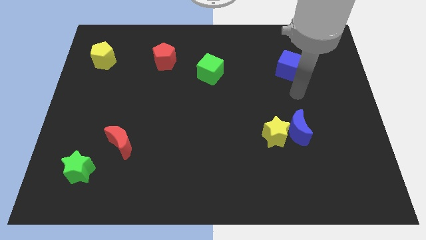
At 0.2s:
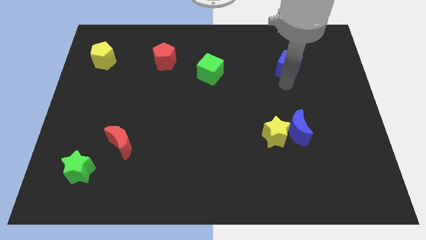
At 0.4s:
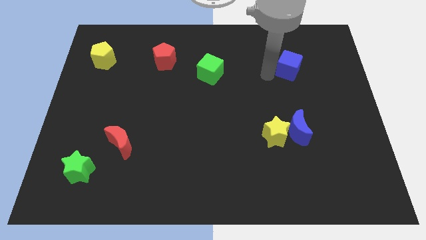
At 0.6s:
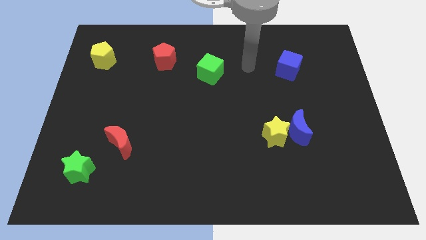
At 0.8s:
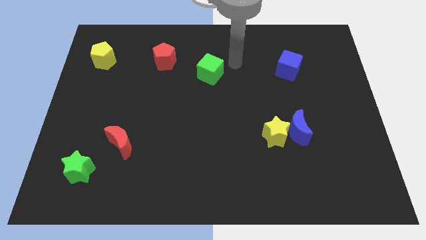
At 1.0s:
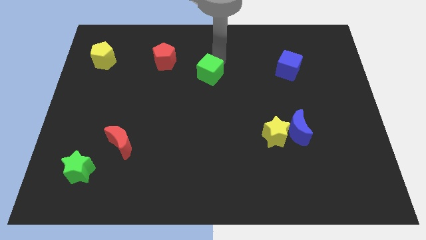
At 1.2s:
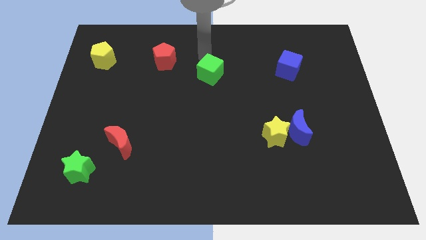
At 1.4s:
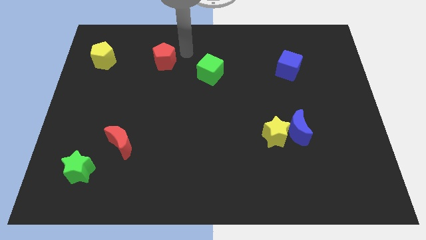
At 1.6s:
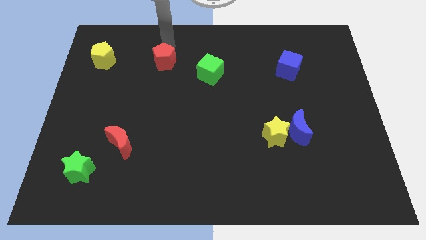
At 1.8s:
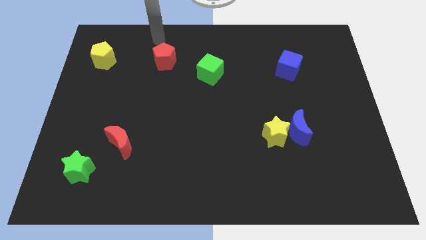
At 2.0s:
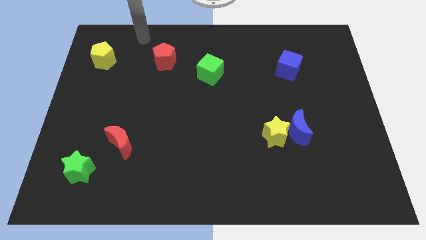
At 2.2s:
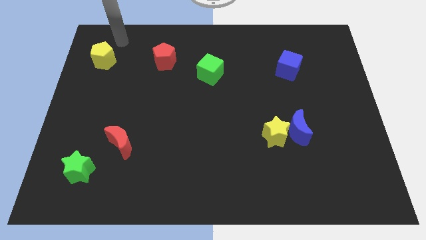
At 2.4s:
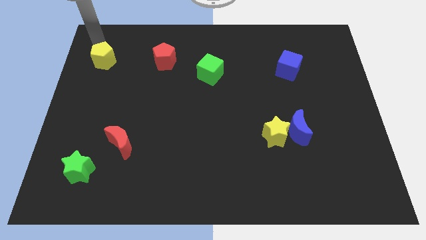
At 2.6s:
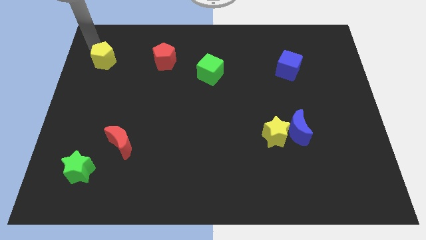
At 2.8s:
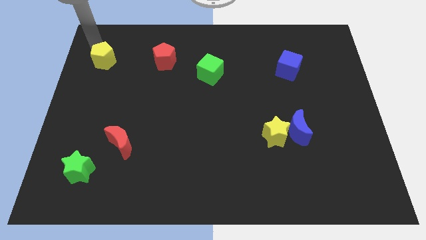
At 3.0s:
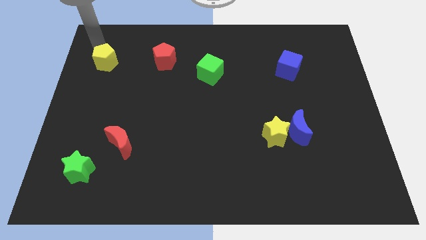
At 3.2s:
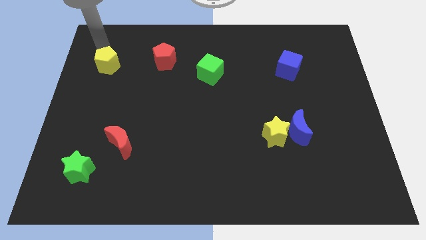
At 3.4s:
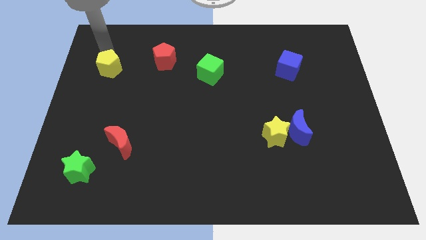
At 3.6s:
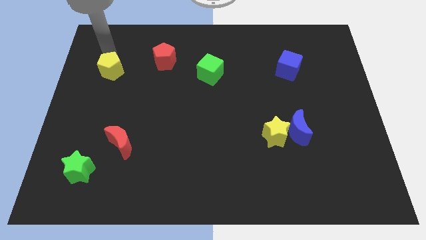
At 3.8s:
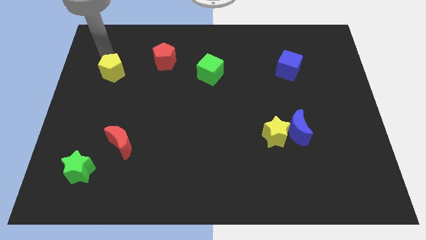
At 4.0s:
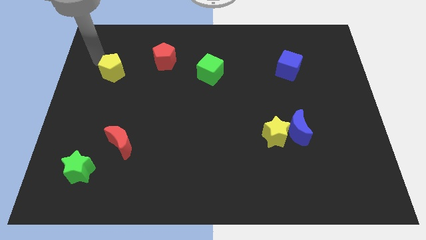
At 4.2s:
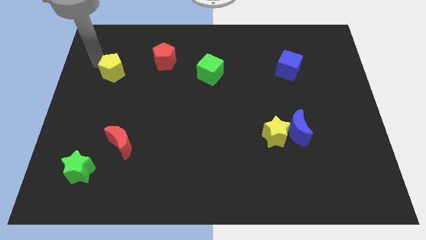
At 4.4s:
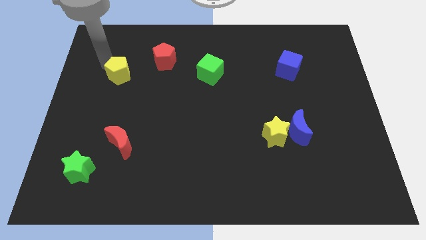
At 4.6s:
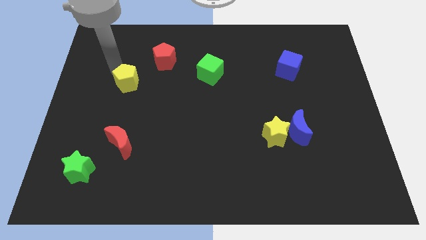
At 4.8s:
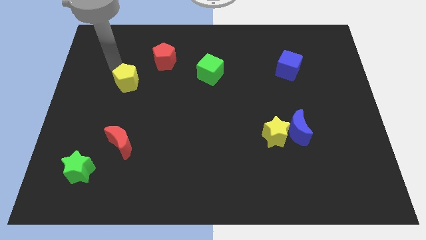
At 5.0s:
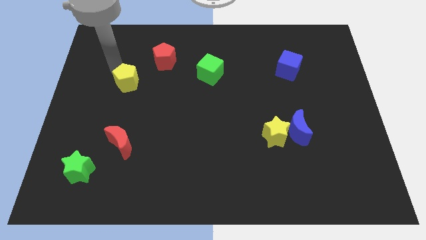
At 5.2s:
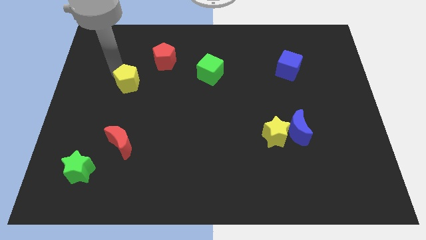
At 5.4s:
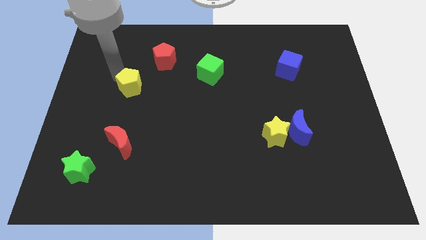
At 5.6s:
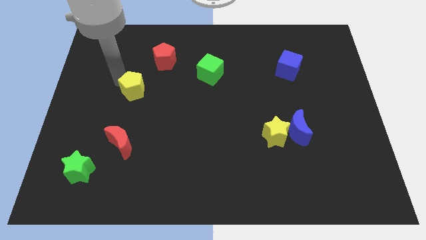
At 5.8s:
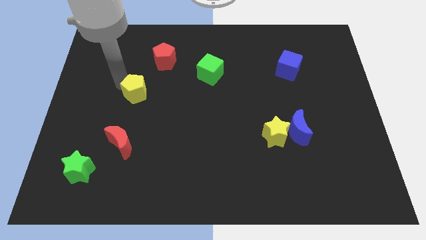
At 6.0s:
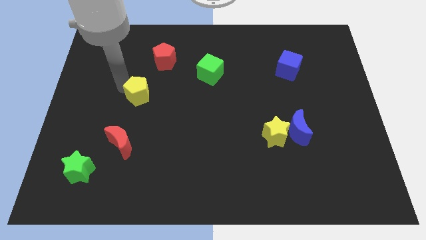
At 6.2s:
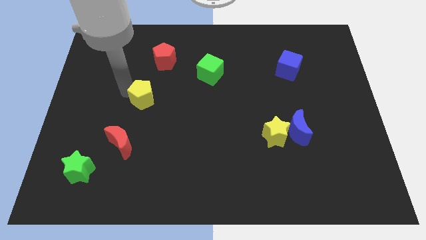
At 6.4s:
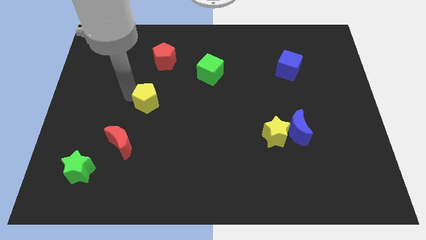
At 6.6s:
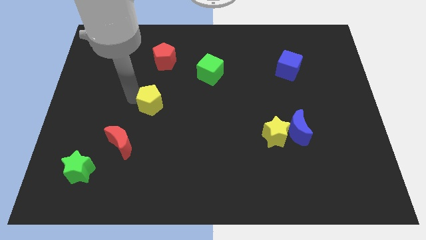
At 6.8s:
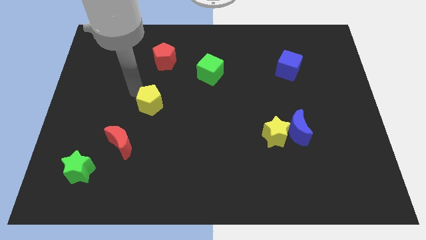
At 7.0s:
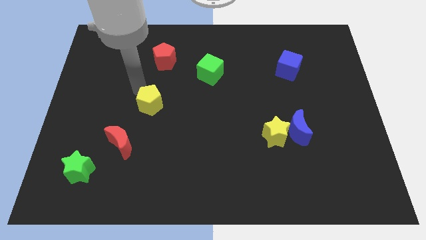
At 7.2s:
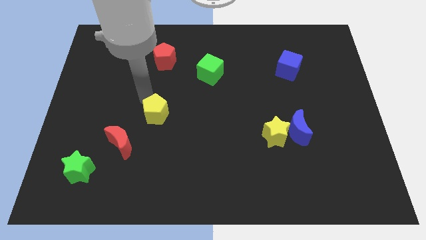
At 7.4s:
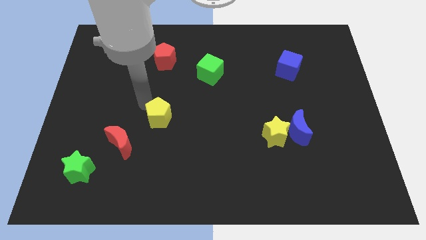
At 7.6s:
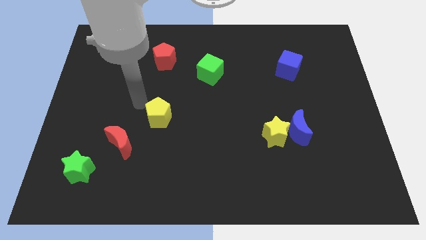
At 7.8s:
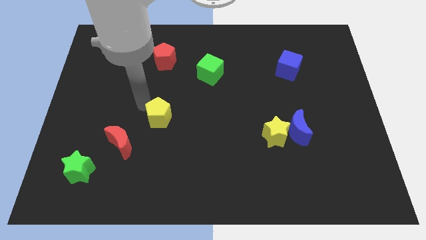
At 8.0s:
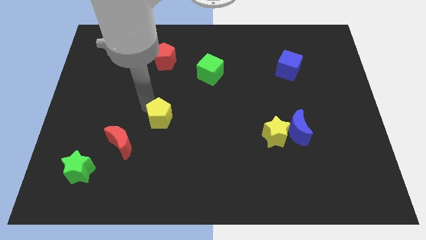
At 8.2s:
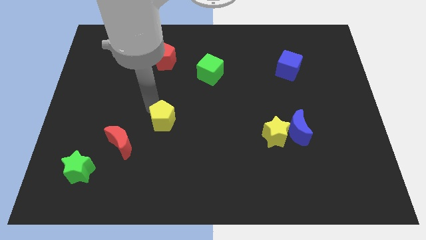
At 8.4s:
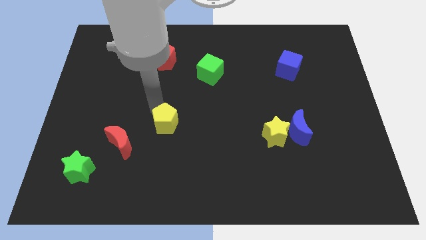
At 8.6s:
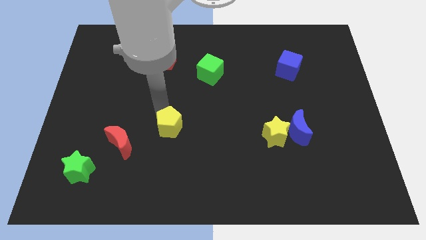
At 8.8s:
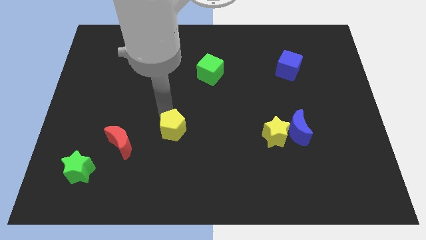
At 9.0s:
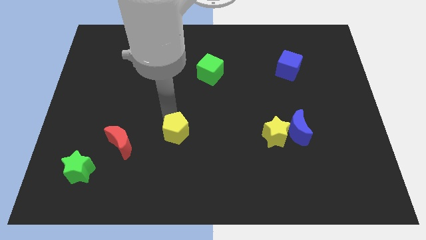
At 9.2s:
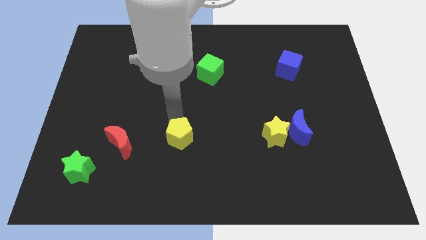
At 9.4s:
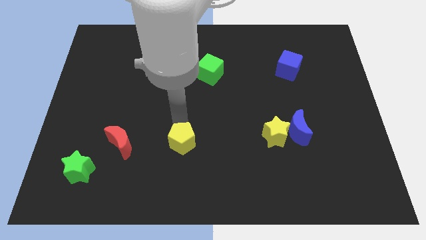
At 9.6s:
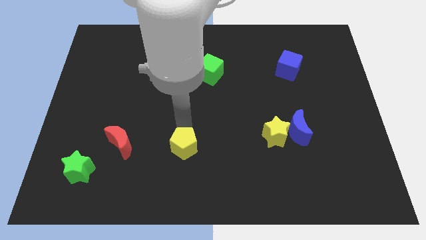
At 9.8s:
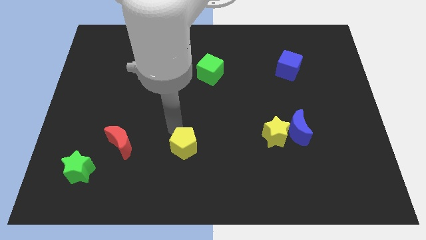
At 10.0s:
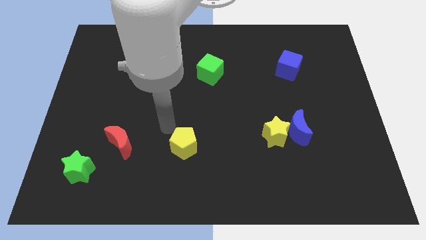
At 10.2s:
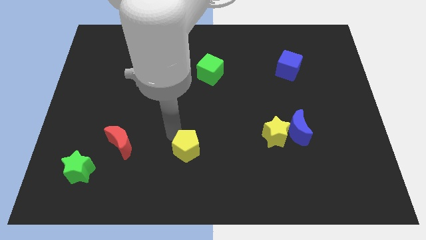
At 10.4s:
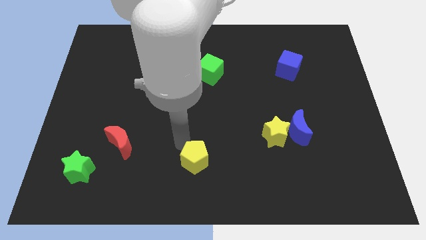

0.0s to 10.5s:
slide the yellow pentagon to the bottom side

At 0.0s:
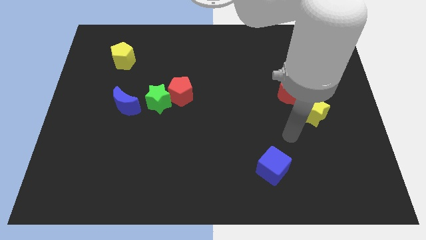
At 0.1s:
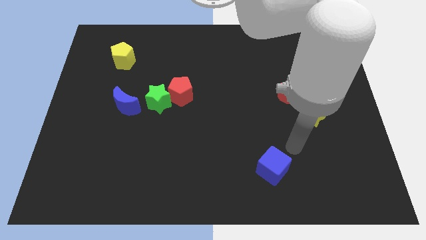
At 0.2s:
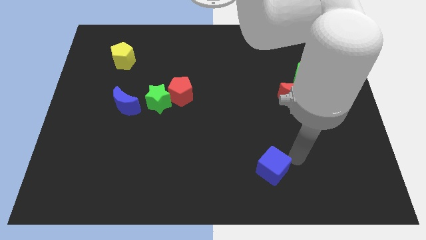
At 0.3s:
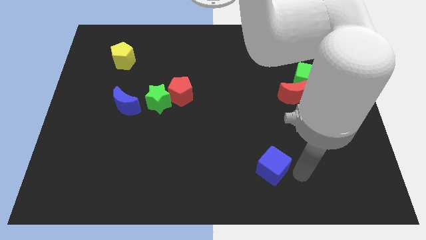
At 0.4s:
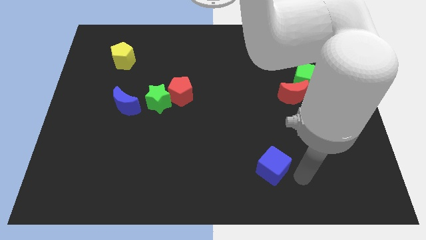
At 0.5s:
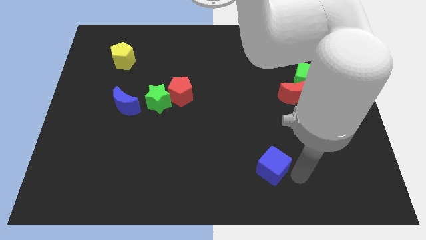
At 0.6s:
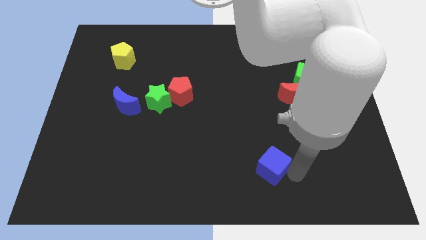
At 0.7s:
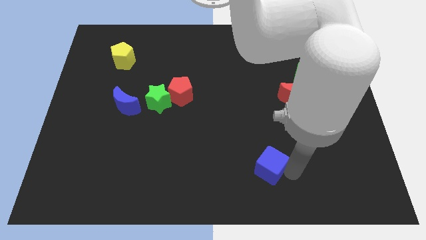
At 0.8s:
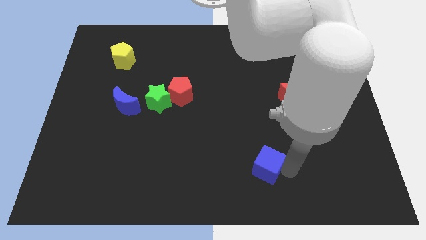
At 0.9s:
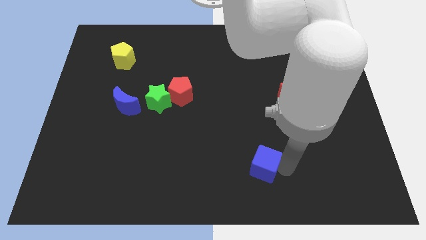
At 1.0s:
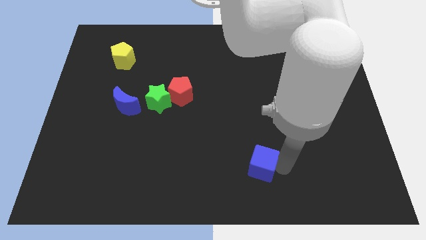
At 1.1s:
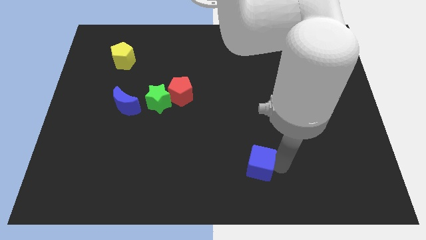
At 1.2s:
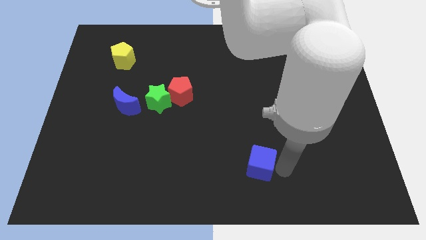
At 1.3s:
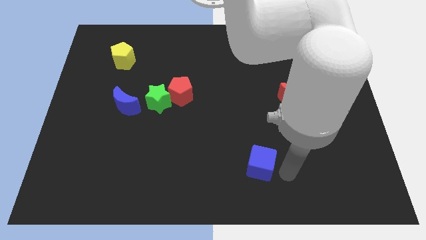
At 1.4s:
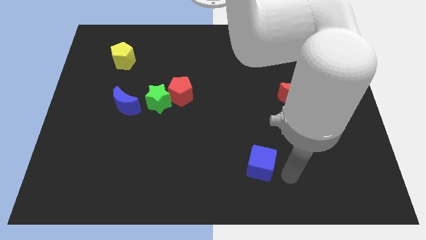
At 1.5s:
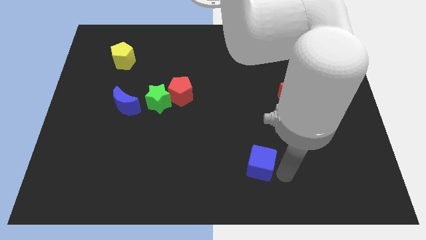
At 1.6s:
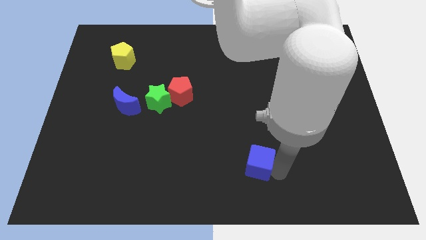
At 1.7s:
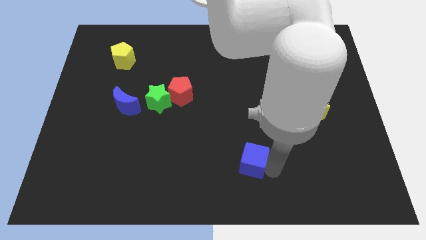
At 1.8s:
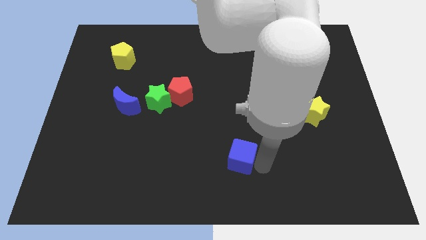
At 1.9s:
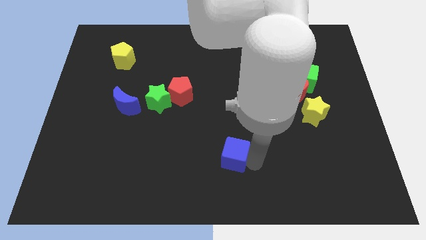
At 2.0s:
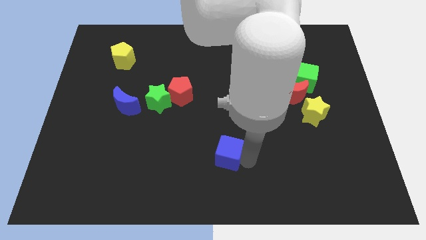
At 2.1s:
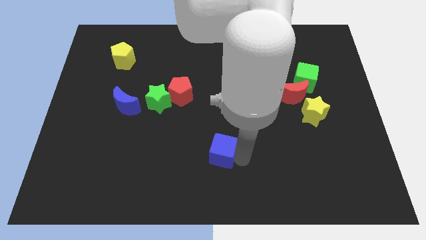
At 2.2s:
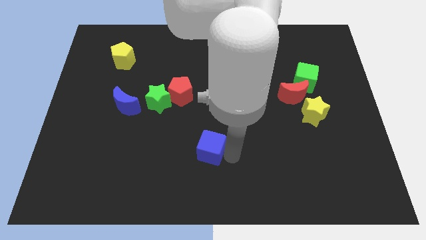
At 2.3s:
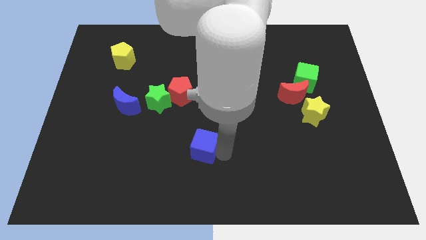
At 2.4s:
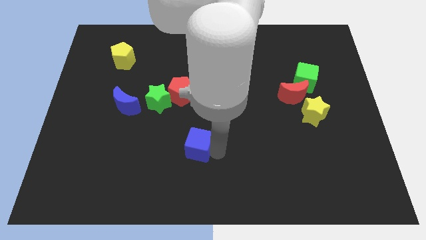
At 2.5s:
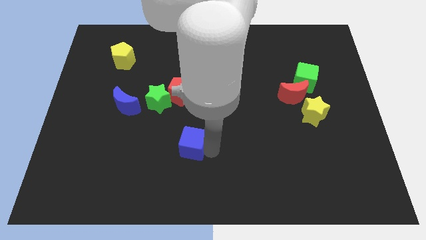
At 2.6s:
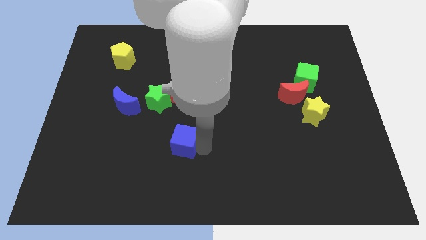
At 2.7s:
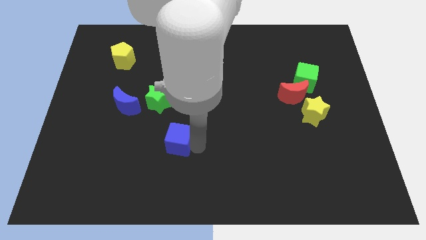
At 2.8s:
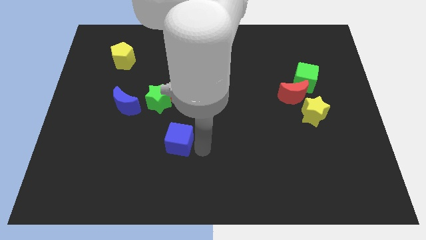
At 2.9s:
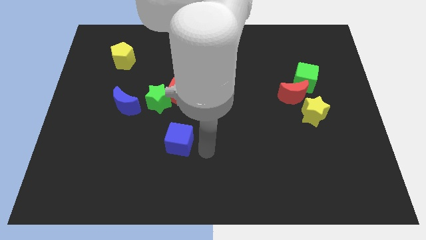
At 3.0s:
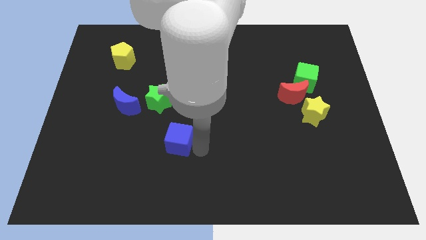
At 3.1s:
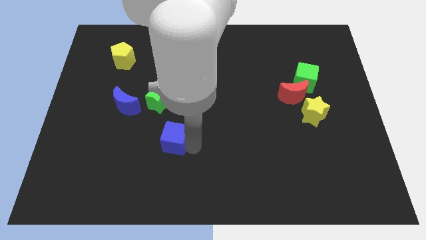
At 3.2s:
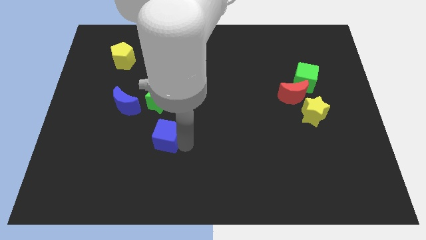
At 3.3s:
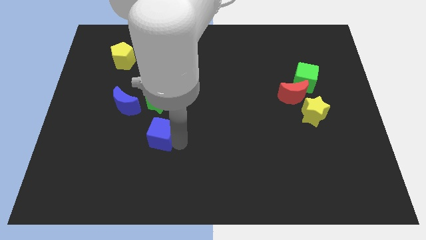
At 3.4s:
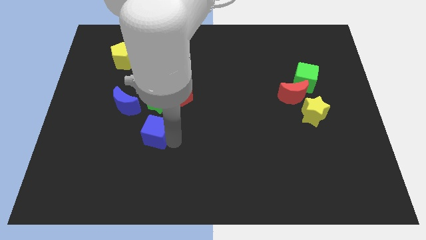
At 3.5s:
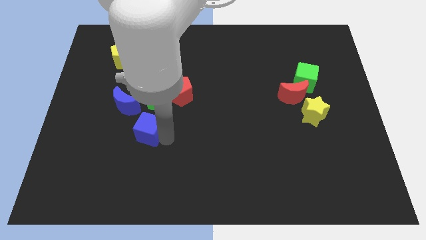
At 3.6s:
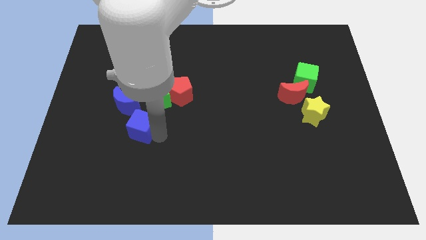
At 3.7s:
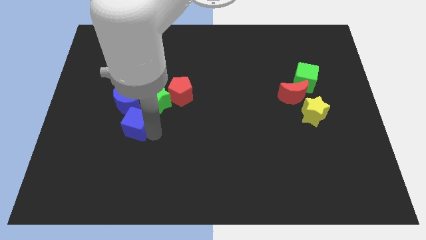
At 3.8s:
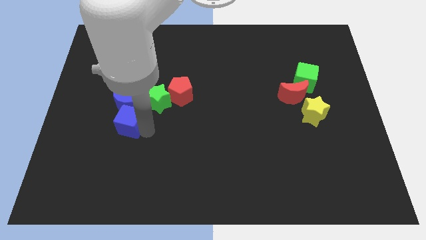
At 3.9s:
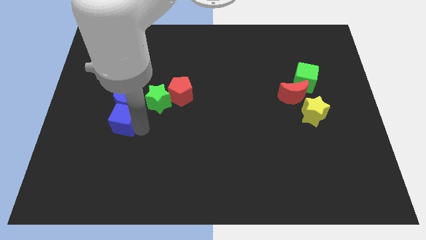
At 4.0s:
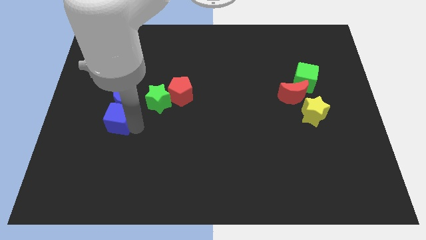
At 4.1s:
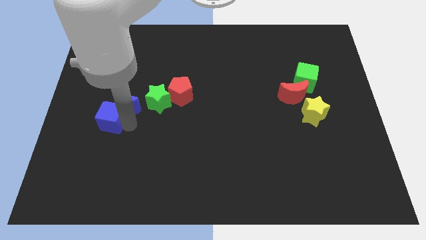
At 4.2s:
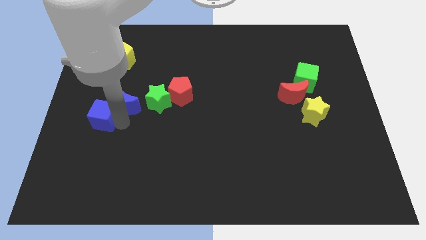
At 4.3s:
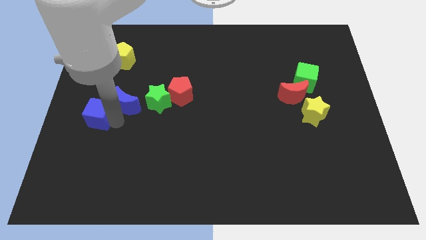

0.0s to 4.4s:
move the blue cube to the center left
